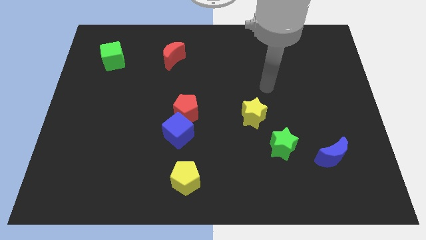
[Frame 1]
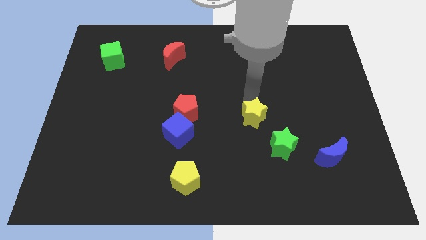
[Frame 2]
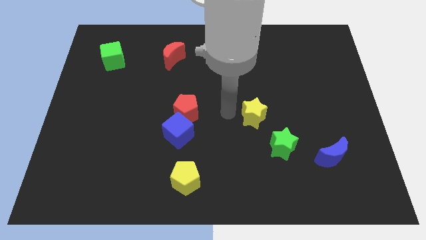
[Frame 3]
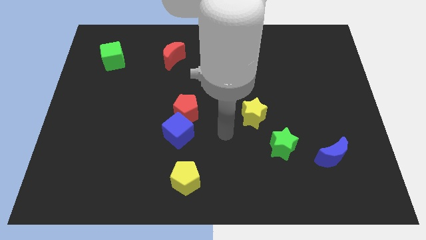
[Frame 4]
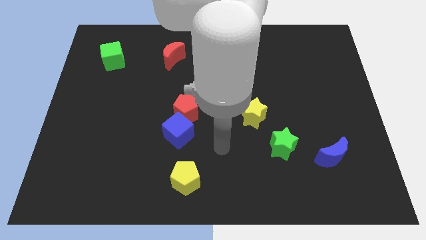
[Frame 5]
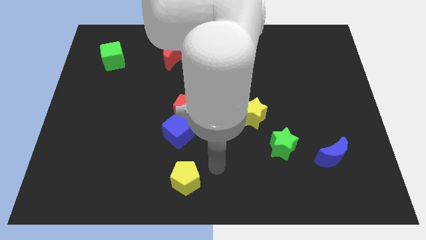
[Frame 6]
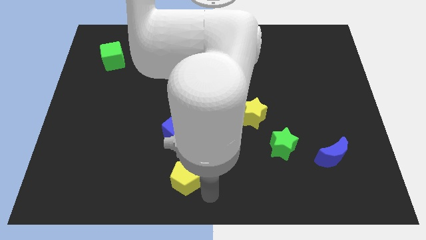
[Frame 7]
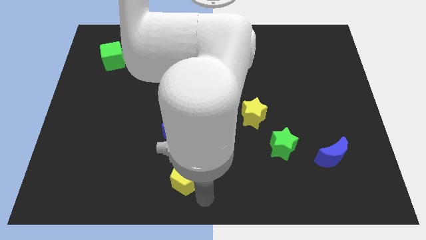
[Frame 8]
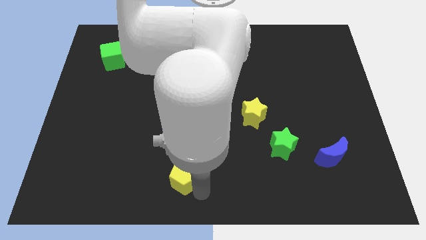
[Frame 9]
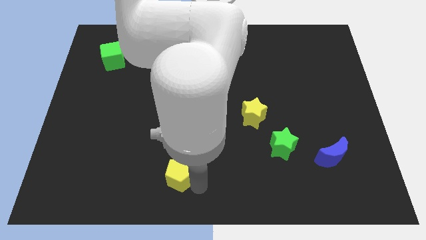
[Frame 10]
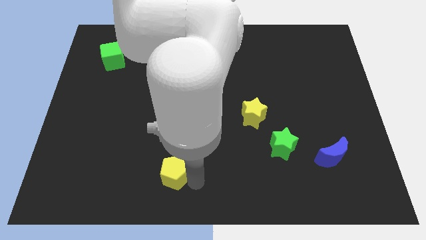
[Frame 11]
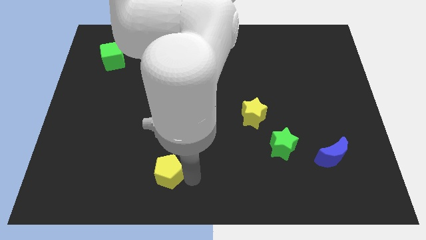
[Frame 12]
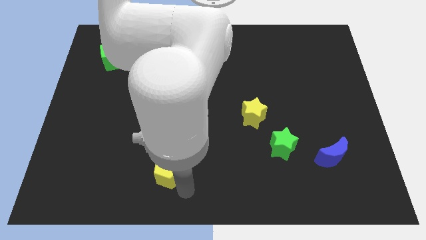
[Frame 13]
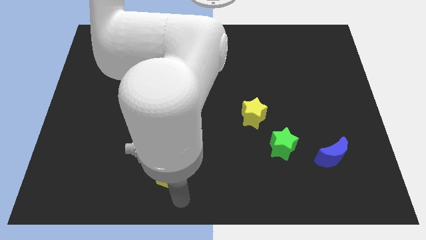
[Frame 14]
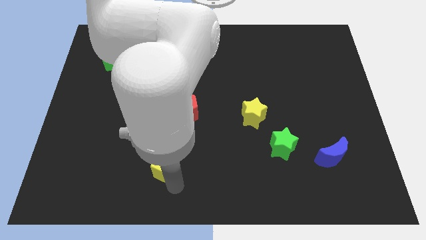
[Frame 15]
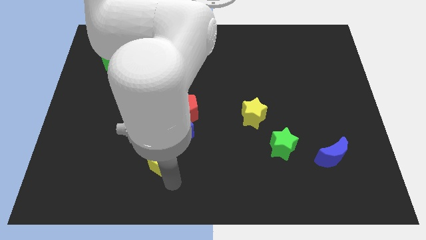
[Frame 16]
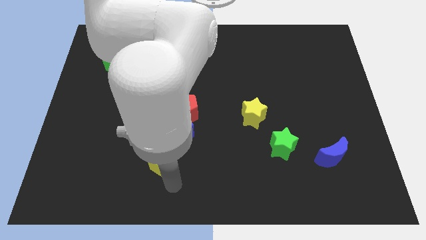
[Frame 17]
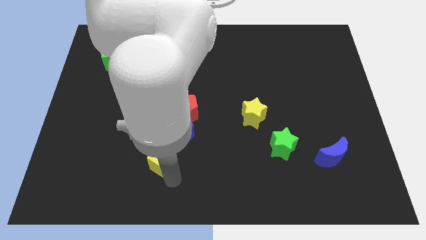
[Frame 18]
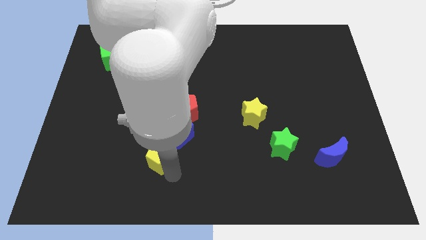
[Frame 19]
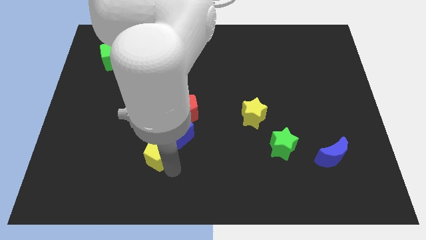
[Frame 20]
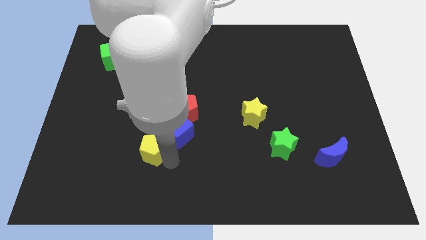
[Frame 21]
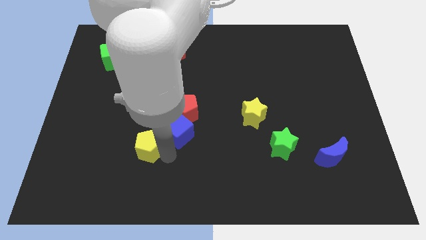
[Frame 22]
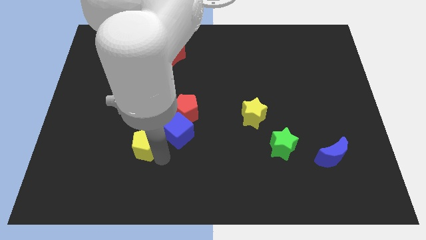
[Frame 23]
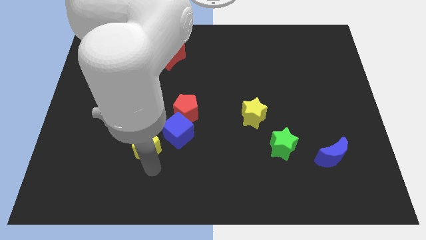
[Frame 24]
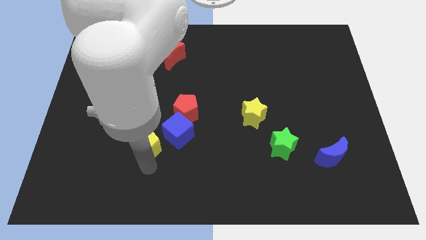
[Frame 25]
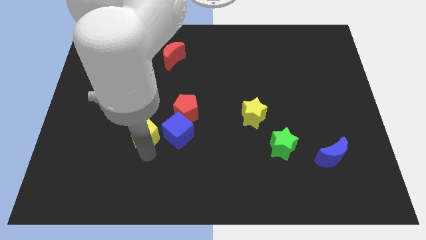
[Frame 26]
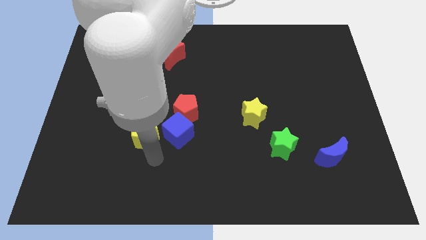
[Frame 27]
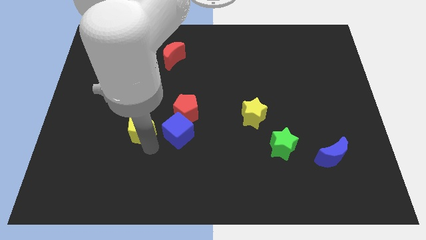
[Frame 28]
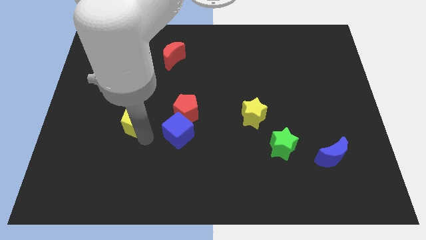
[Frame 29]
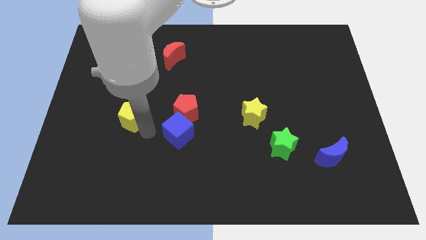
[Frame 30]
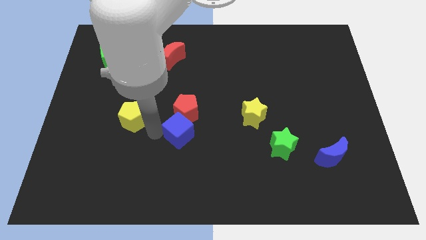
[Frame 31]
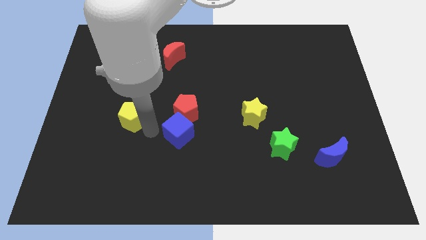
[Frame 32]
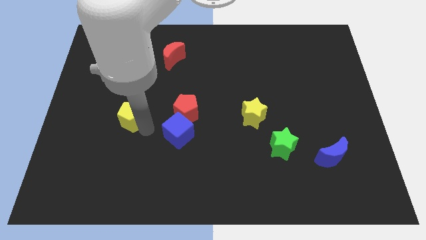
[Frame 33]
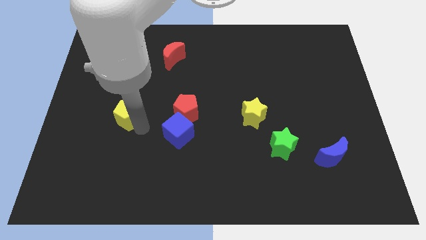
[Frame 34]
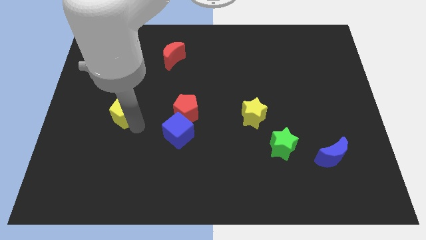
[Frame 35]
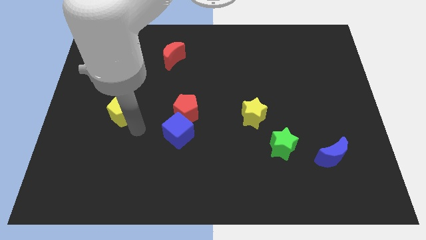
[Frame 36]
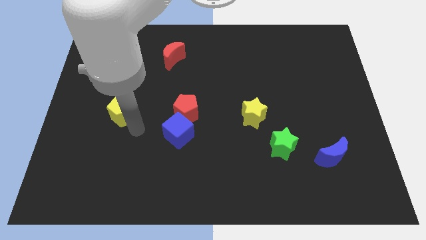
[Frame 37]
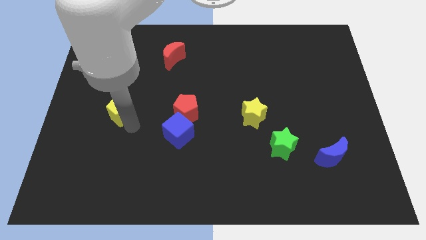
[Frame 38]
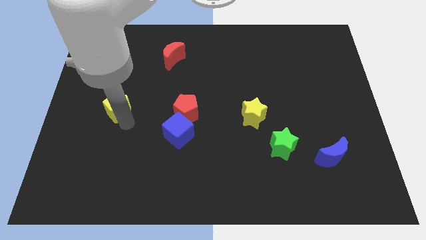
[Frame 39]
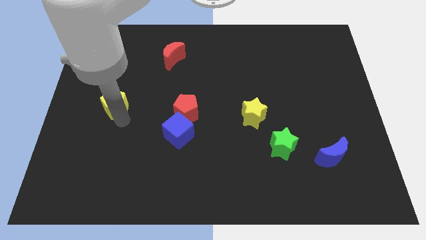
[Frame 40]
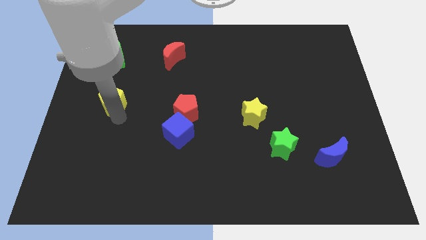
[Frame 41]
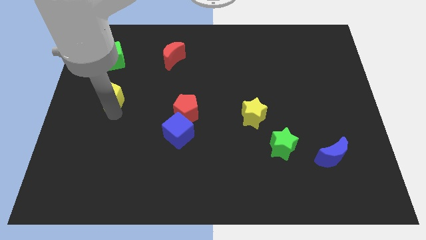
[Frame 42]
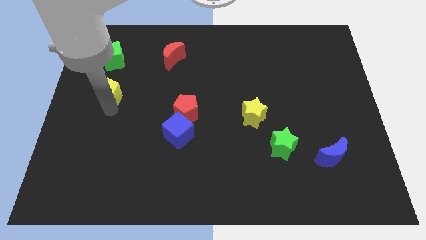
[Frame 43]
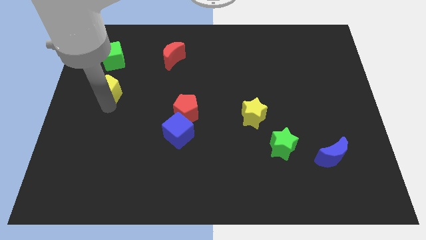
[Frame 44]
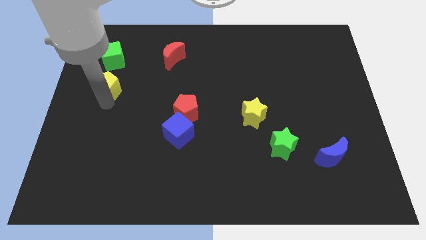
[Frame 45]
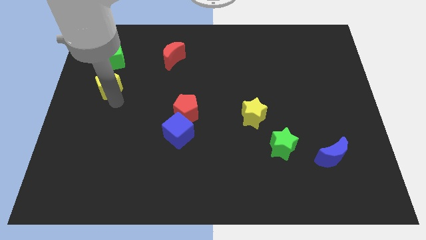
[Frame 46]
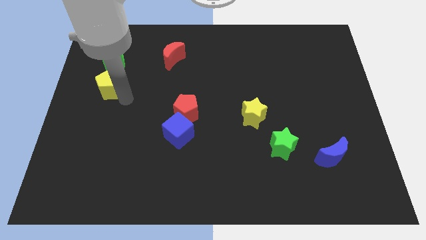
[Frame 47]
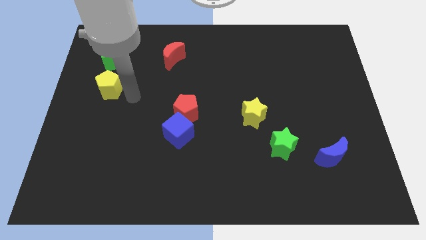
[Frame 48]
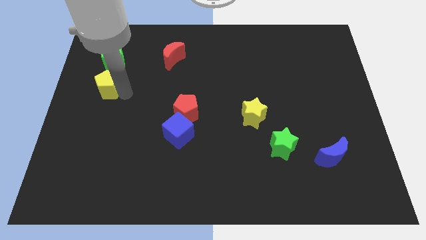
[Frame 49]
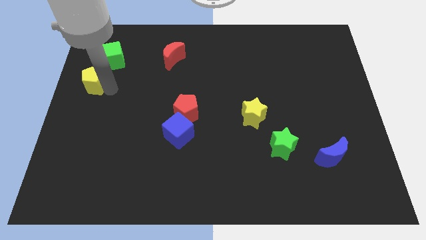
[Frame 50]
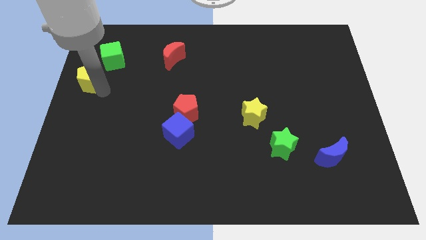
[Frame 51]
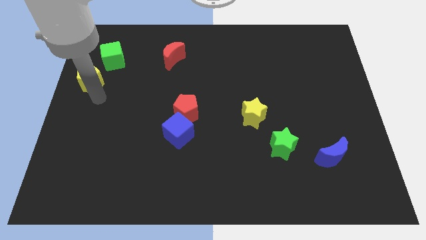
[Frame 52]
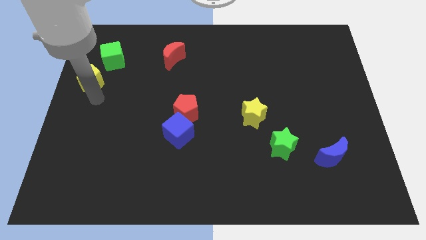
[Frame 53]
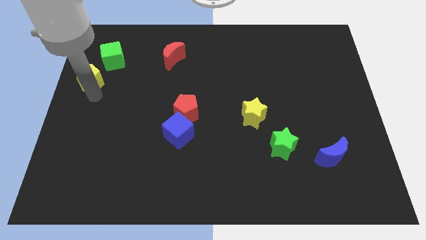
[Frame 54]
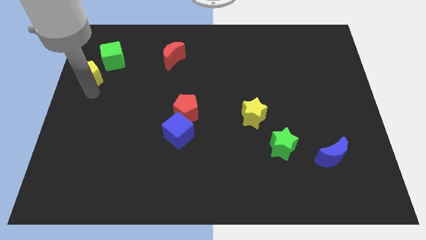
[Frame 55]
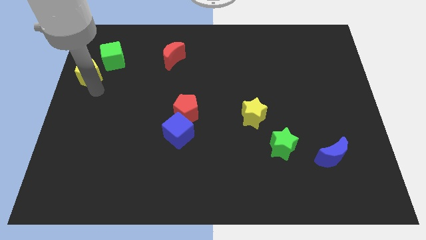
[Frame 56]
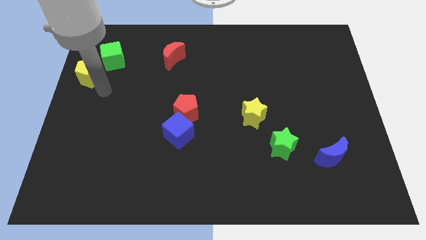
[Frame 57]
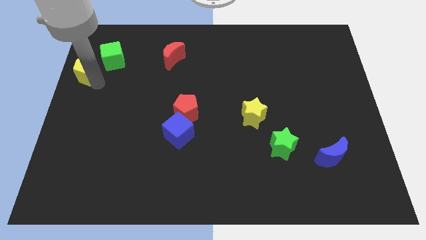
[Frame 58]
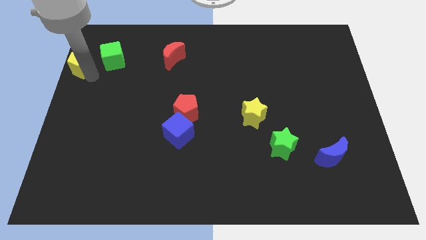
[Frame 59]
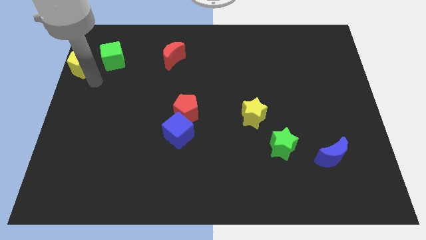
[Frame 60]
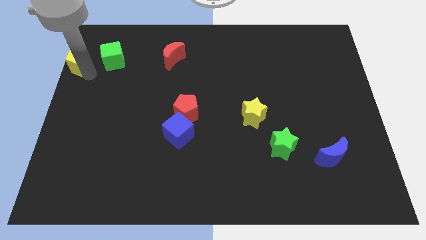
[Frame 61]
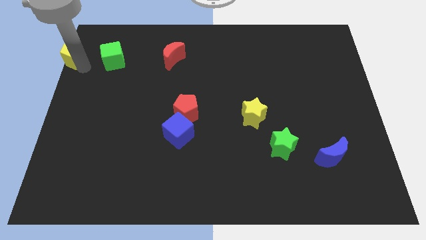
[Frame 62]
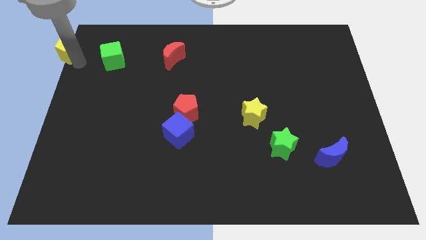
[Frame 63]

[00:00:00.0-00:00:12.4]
slide the yellow pentagon to the top left corner

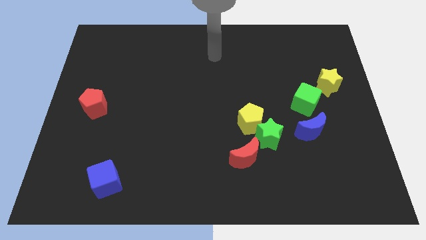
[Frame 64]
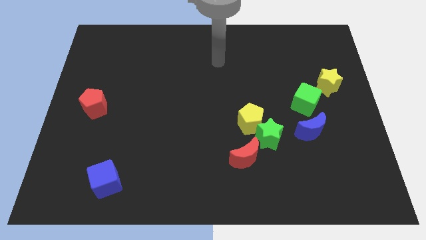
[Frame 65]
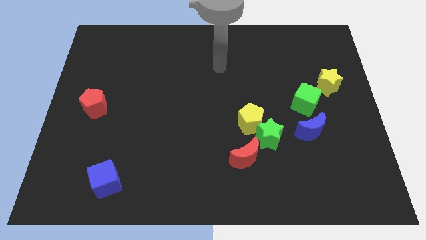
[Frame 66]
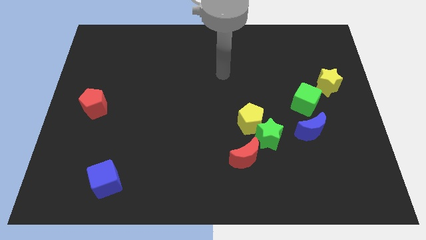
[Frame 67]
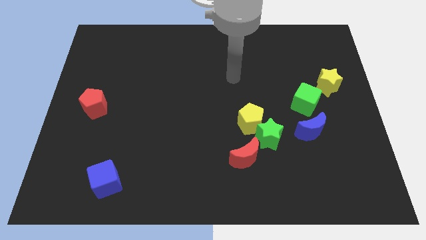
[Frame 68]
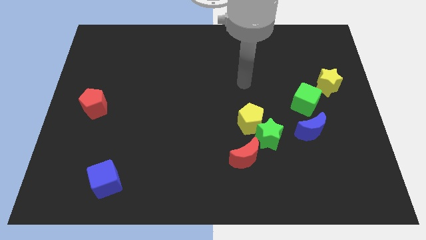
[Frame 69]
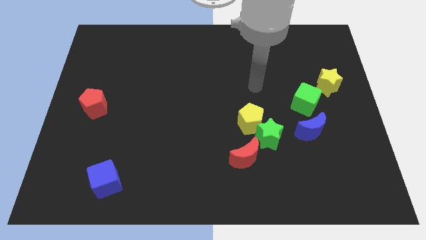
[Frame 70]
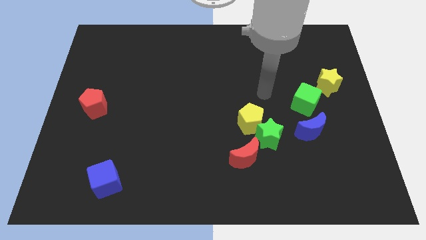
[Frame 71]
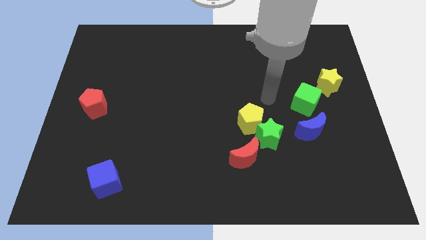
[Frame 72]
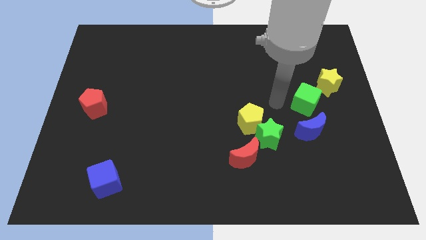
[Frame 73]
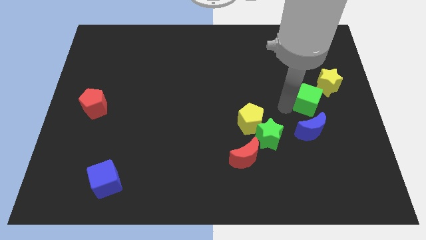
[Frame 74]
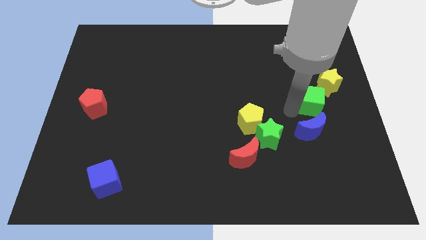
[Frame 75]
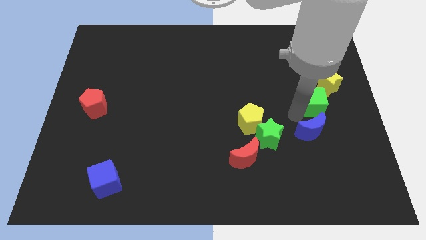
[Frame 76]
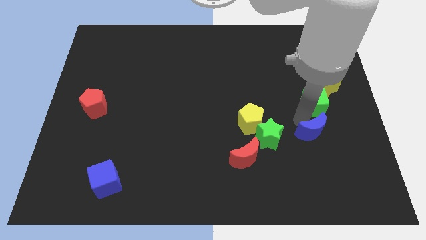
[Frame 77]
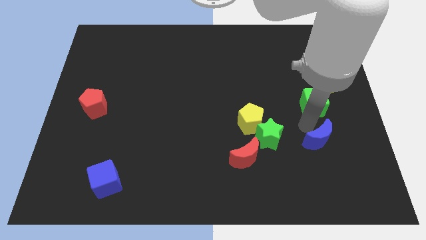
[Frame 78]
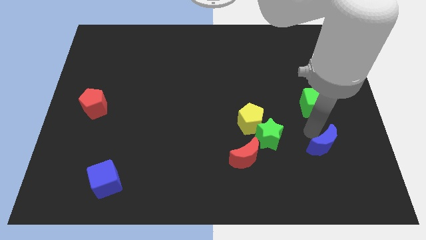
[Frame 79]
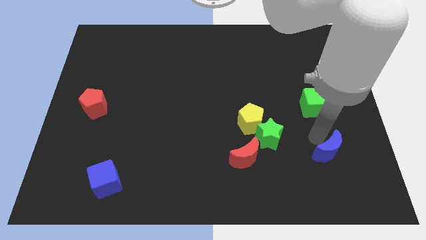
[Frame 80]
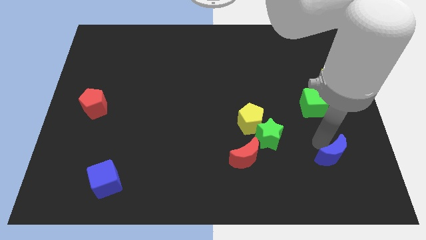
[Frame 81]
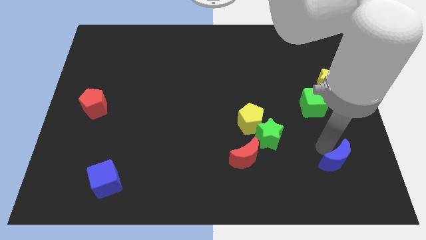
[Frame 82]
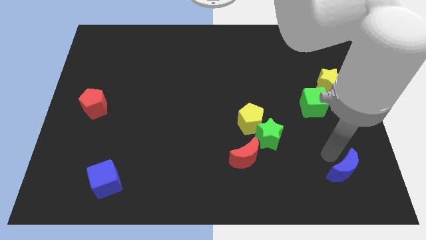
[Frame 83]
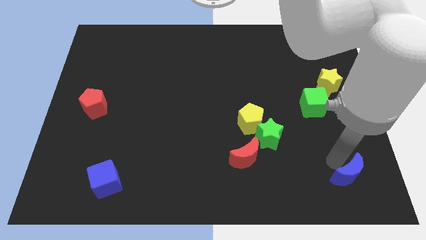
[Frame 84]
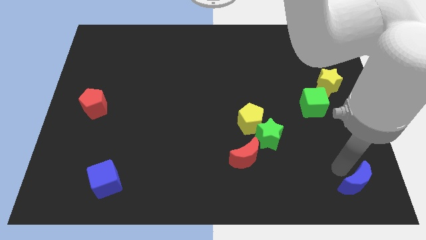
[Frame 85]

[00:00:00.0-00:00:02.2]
move the blue moon to the bottom right corner
